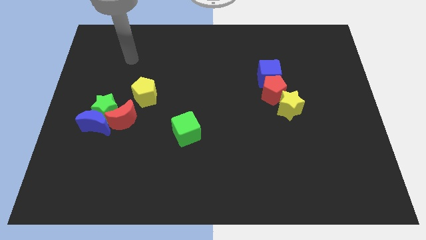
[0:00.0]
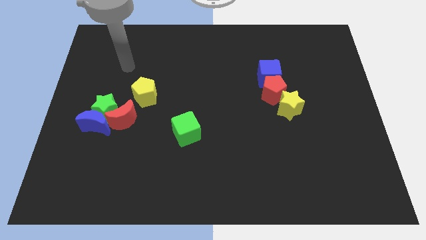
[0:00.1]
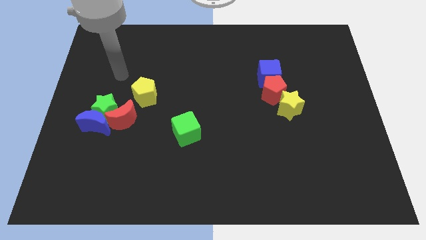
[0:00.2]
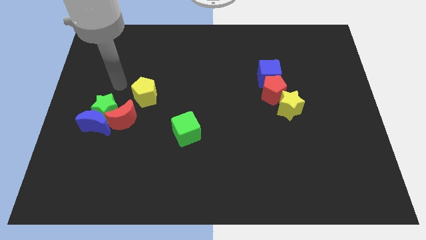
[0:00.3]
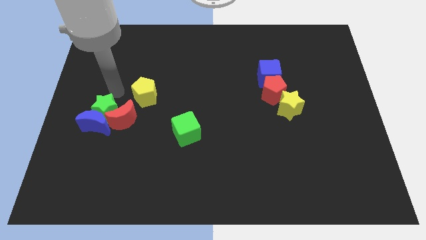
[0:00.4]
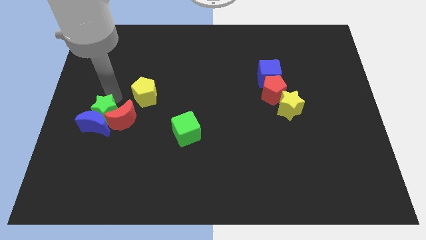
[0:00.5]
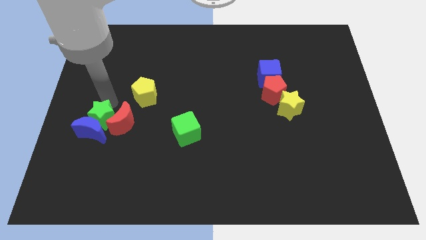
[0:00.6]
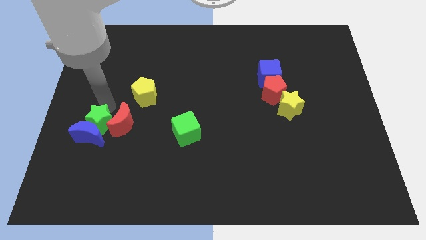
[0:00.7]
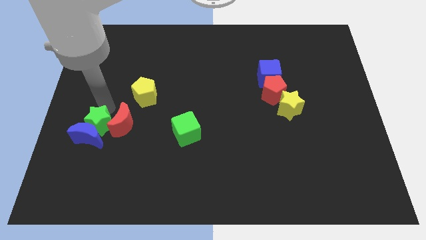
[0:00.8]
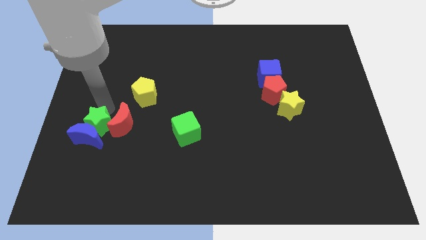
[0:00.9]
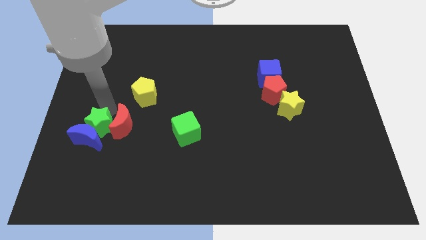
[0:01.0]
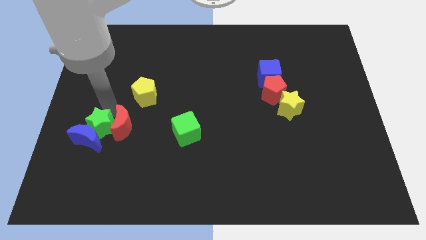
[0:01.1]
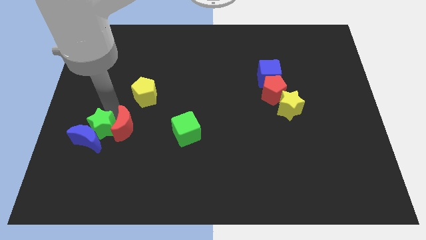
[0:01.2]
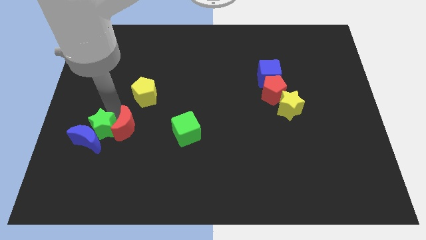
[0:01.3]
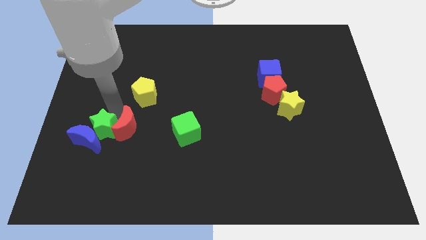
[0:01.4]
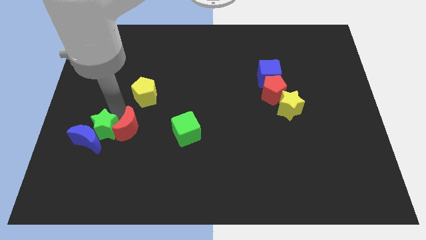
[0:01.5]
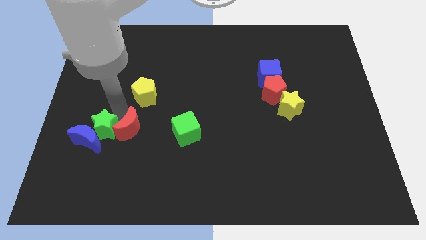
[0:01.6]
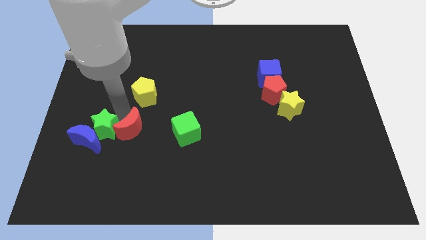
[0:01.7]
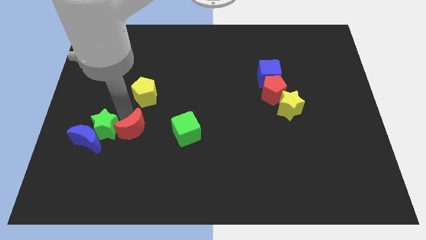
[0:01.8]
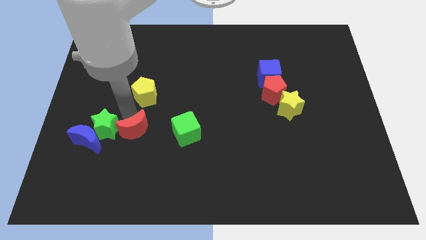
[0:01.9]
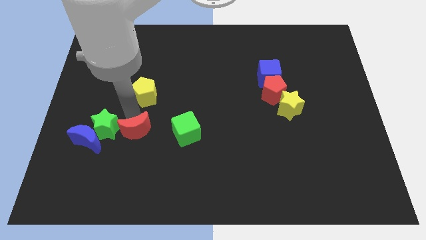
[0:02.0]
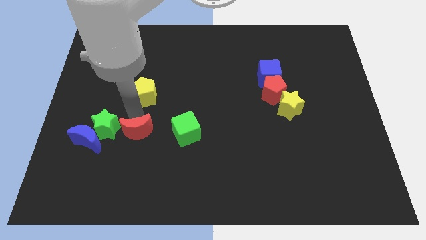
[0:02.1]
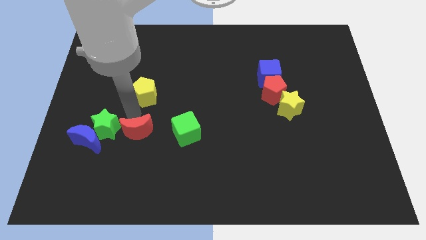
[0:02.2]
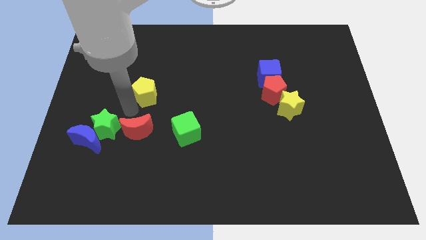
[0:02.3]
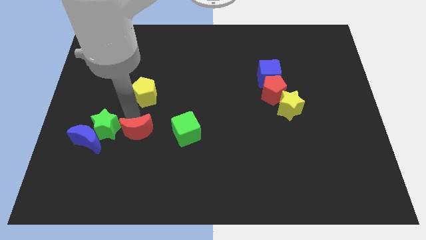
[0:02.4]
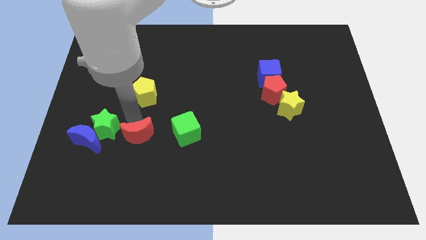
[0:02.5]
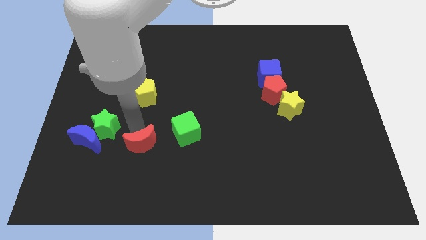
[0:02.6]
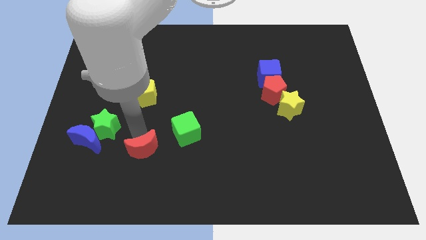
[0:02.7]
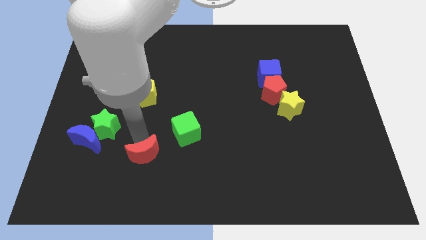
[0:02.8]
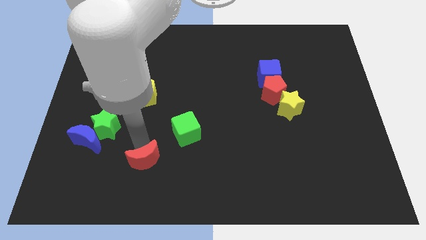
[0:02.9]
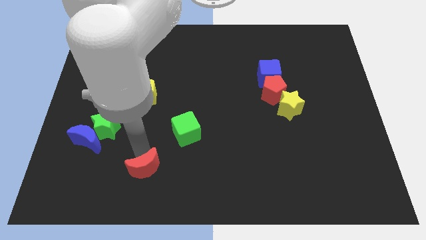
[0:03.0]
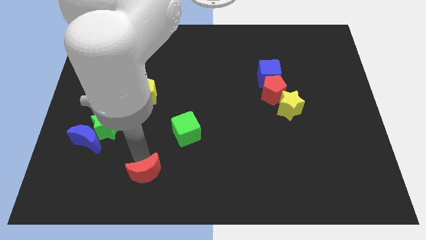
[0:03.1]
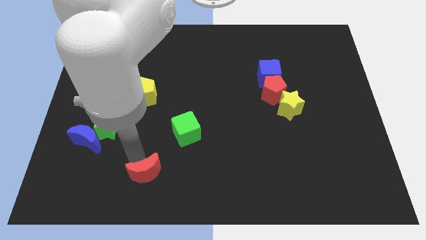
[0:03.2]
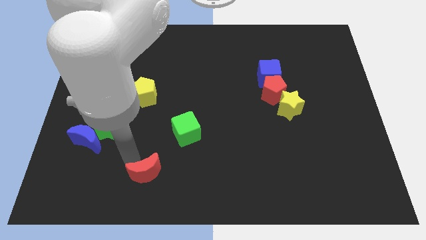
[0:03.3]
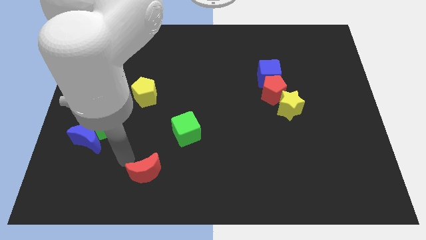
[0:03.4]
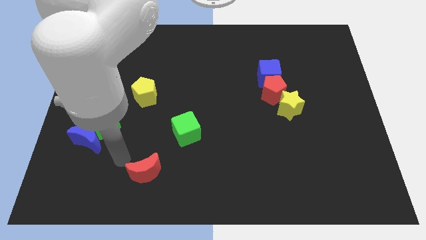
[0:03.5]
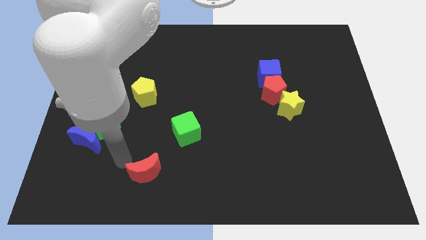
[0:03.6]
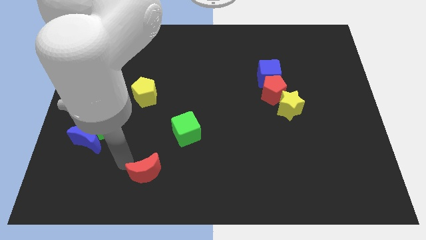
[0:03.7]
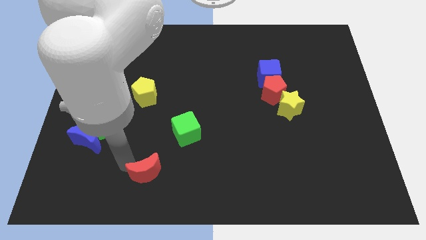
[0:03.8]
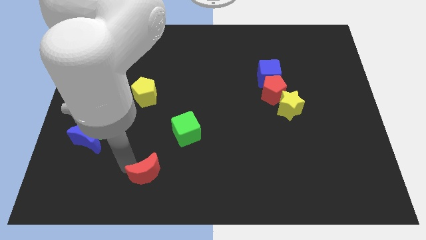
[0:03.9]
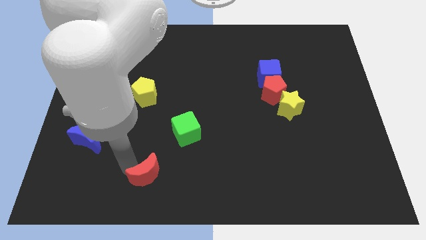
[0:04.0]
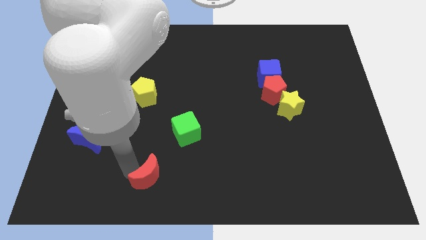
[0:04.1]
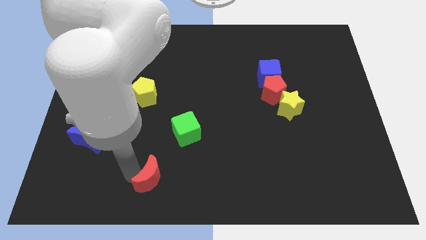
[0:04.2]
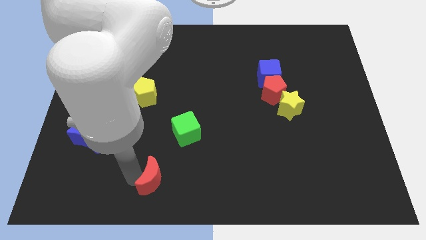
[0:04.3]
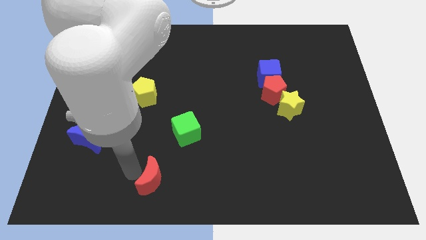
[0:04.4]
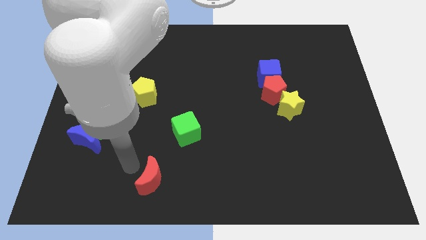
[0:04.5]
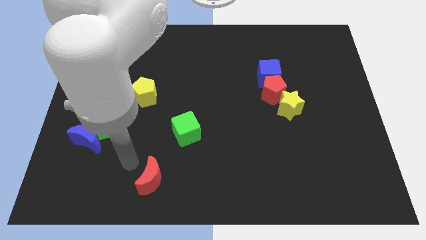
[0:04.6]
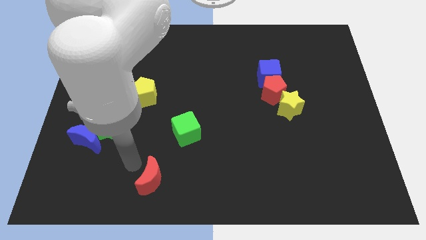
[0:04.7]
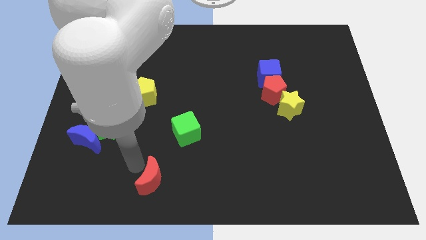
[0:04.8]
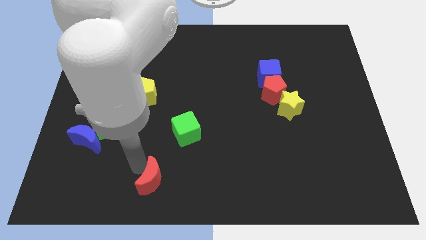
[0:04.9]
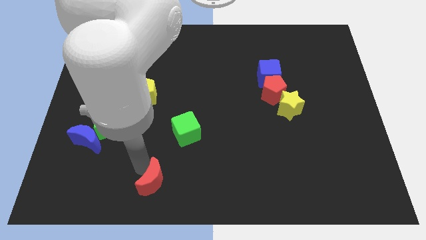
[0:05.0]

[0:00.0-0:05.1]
slide the red moon to the bottom side

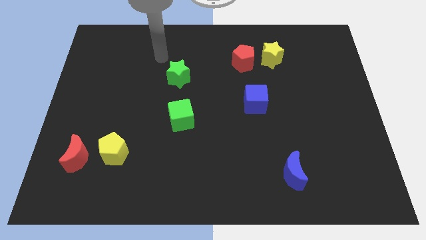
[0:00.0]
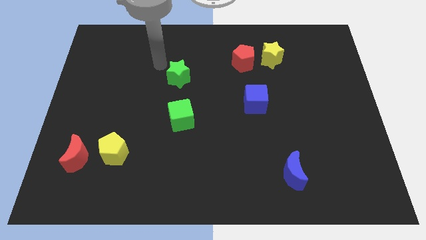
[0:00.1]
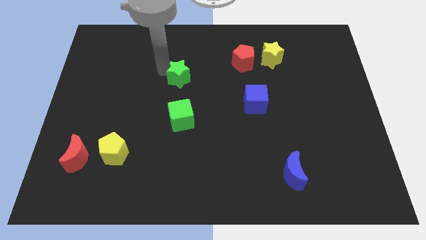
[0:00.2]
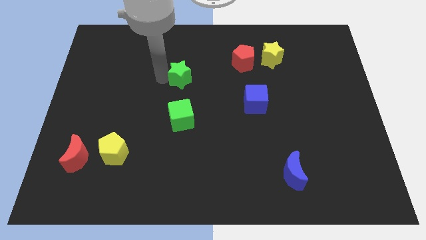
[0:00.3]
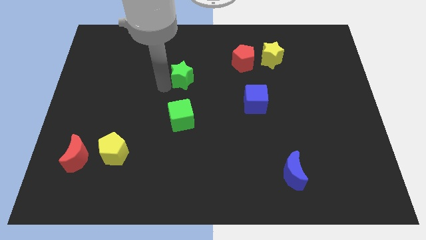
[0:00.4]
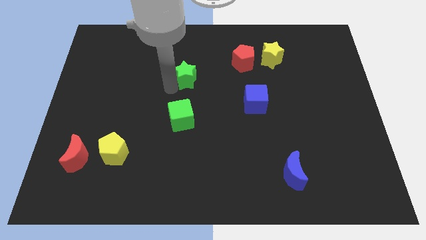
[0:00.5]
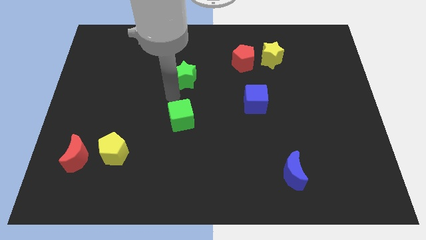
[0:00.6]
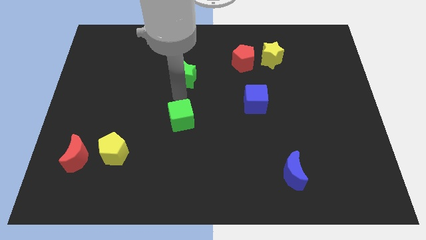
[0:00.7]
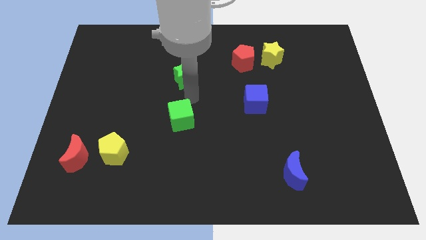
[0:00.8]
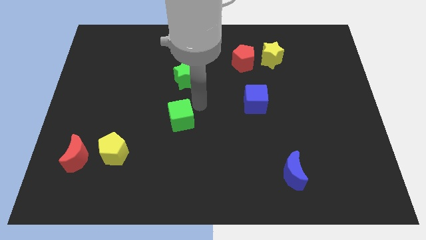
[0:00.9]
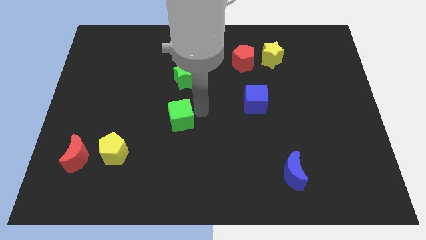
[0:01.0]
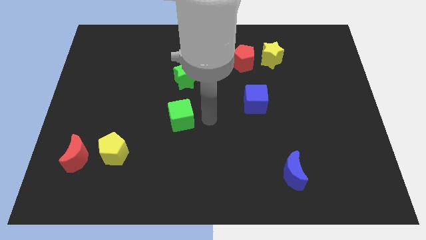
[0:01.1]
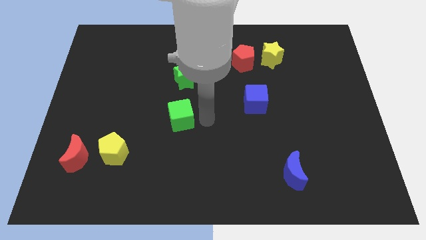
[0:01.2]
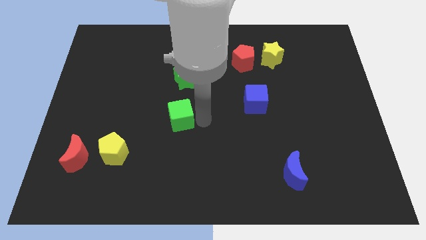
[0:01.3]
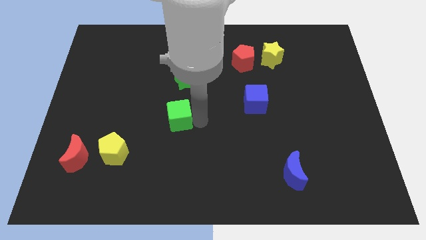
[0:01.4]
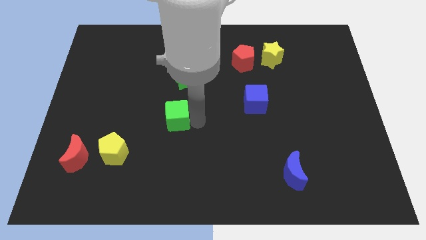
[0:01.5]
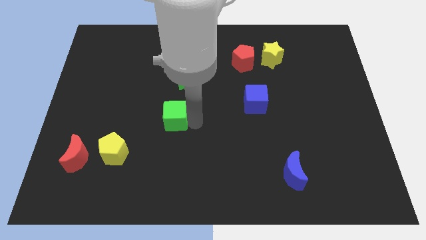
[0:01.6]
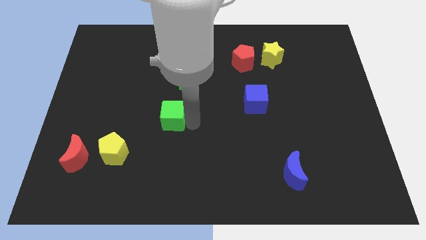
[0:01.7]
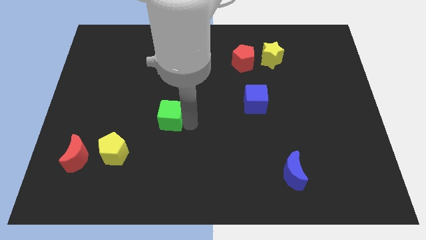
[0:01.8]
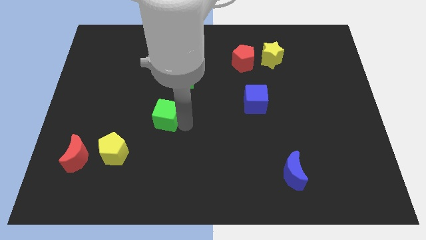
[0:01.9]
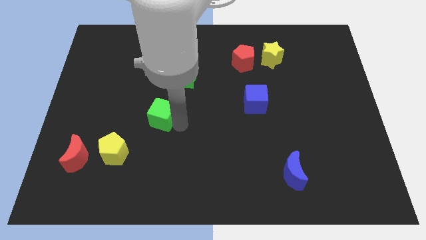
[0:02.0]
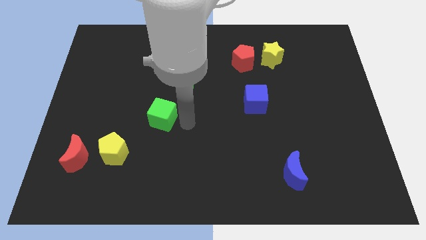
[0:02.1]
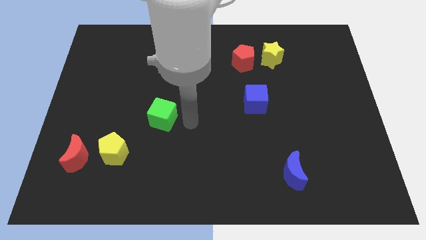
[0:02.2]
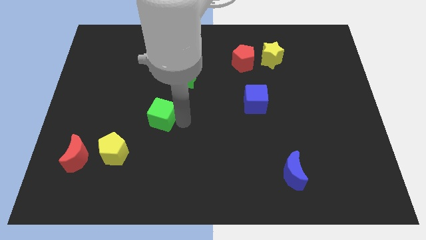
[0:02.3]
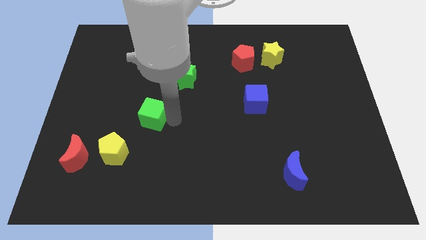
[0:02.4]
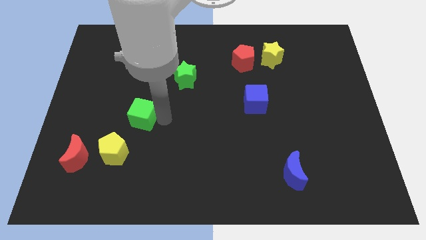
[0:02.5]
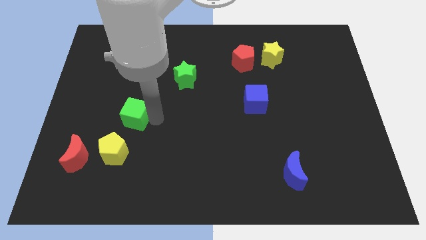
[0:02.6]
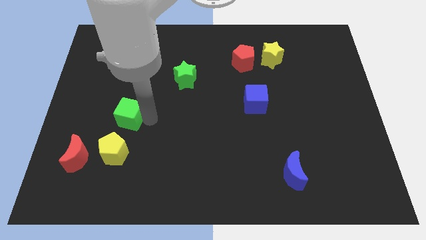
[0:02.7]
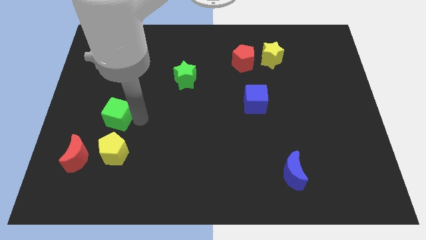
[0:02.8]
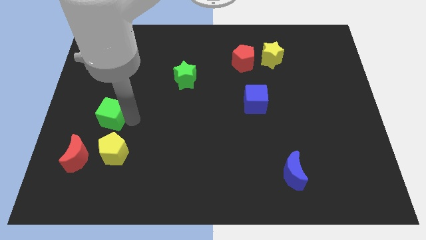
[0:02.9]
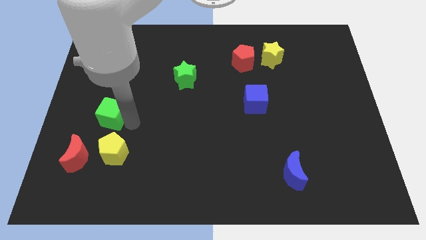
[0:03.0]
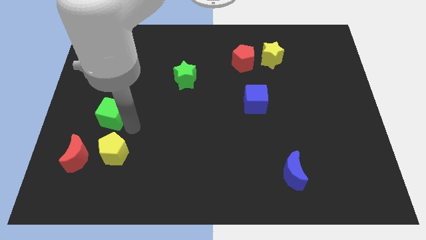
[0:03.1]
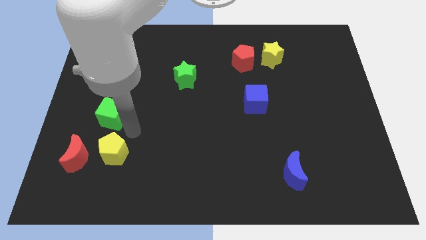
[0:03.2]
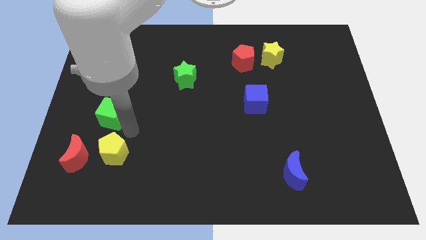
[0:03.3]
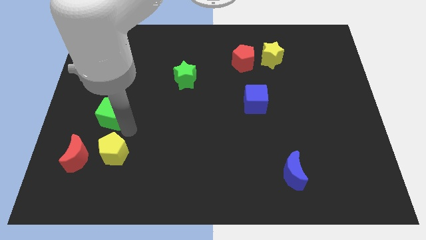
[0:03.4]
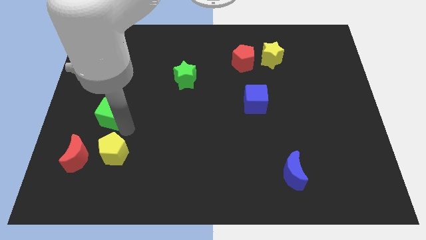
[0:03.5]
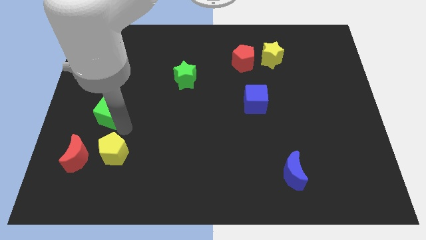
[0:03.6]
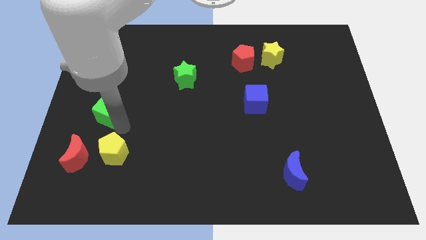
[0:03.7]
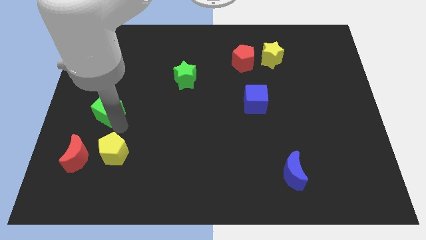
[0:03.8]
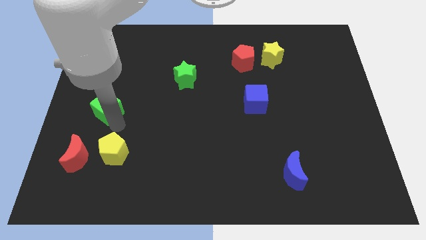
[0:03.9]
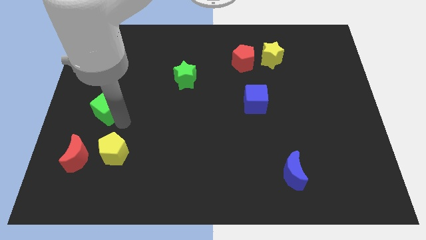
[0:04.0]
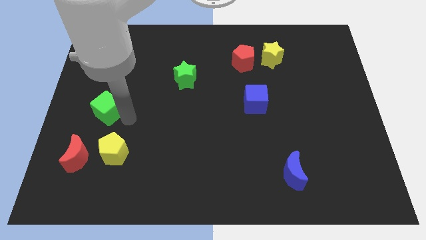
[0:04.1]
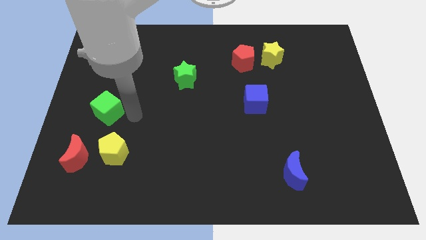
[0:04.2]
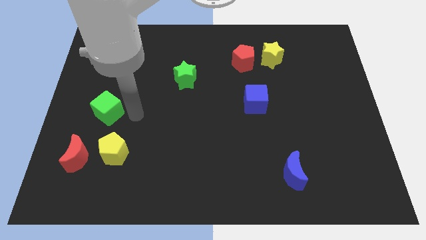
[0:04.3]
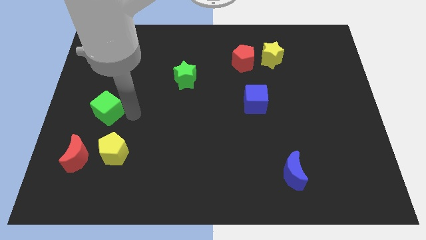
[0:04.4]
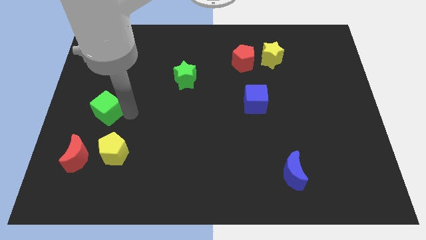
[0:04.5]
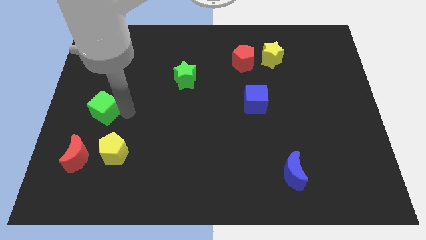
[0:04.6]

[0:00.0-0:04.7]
move the green cube to the left side
